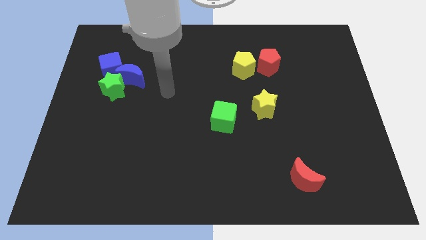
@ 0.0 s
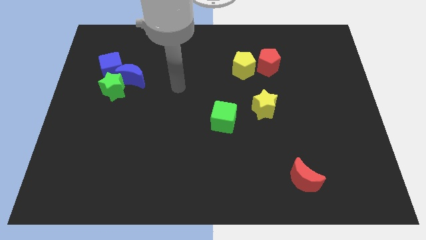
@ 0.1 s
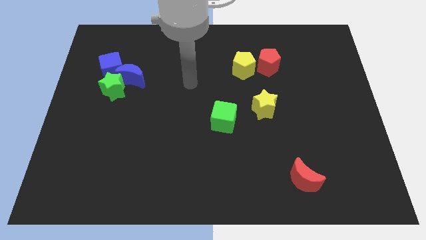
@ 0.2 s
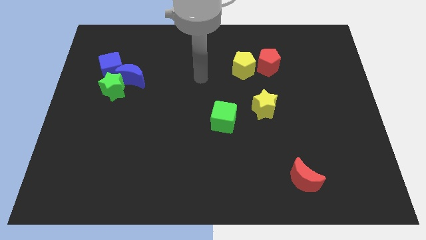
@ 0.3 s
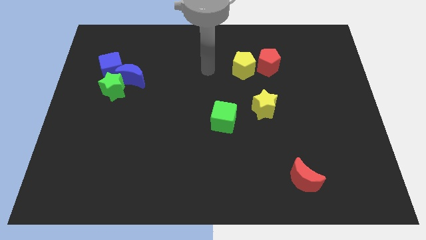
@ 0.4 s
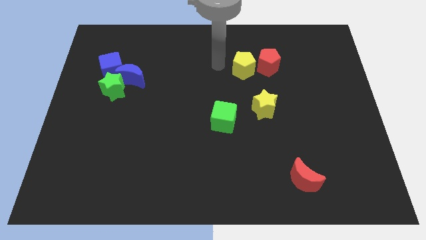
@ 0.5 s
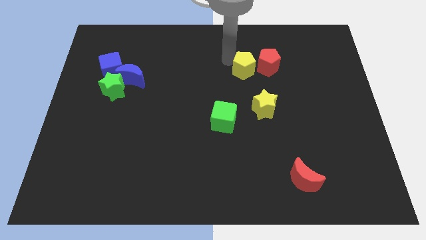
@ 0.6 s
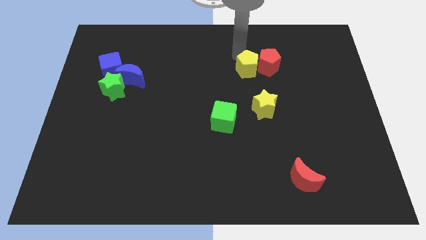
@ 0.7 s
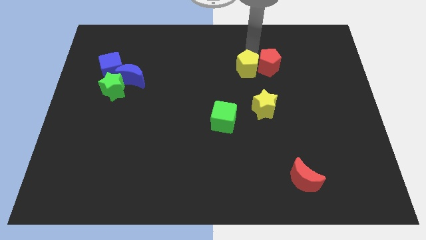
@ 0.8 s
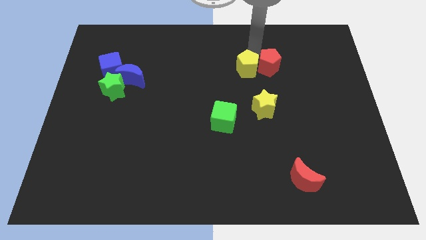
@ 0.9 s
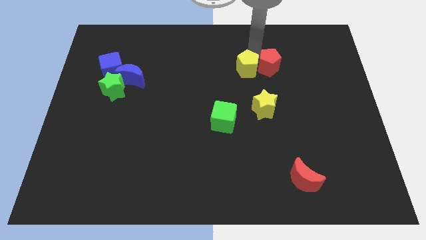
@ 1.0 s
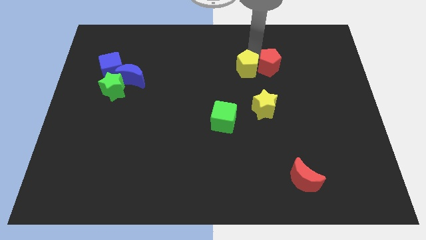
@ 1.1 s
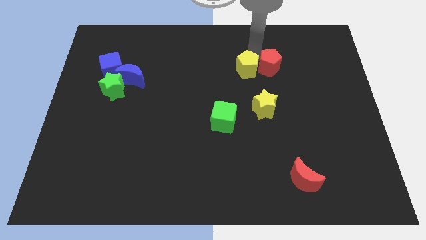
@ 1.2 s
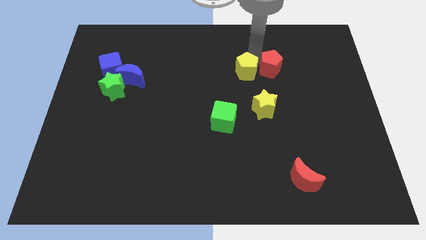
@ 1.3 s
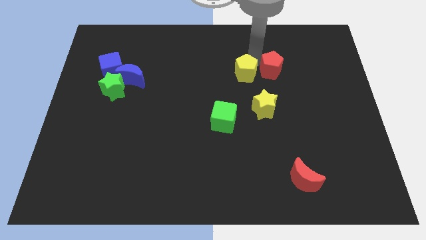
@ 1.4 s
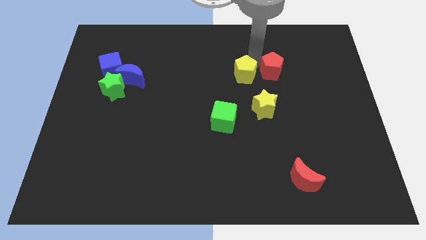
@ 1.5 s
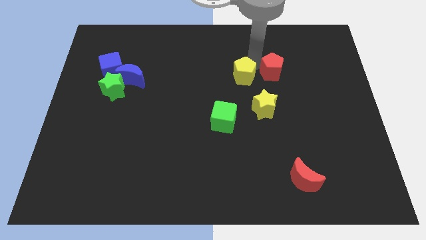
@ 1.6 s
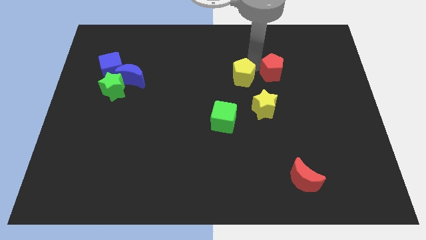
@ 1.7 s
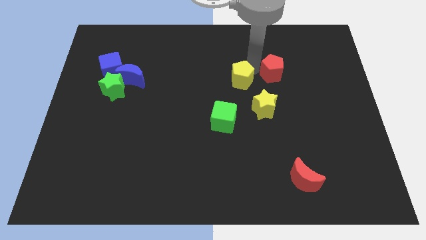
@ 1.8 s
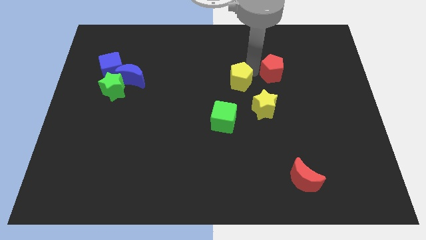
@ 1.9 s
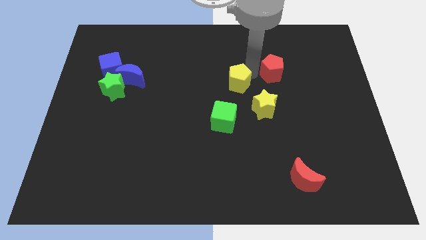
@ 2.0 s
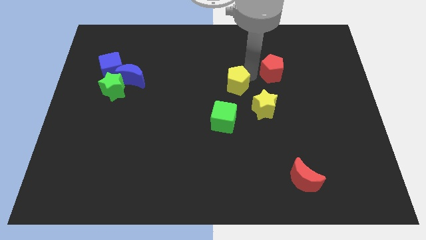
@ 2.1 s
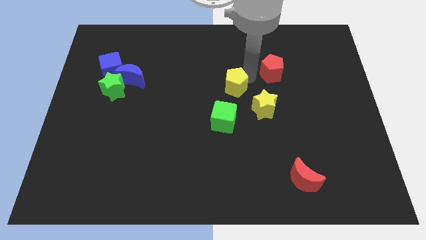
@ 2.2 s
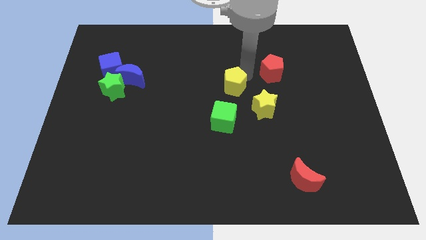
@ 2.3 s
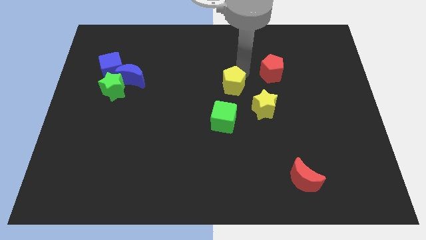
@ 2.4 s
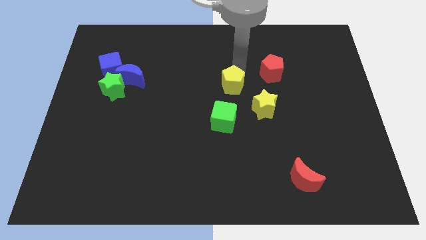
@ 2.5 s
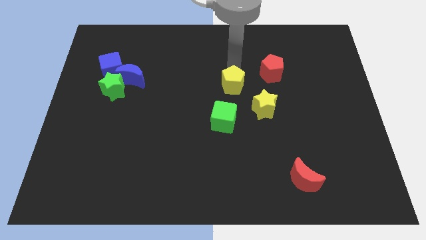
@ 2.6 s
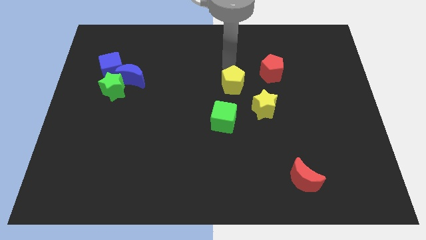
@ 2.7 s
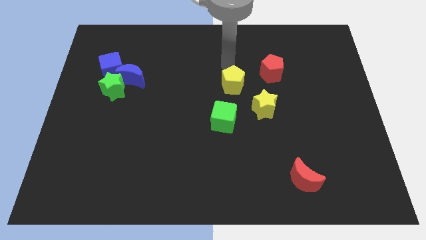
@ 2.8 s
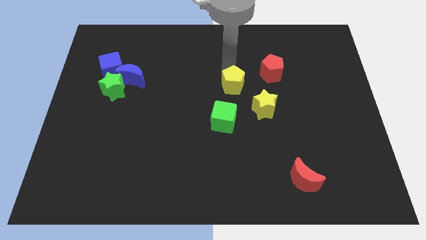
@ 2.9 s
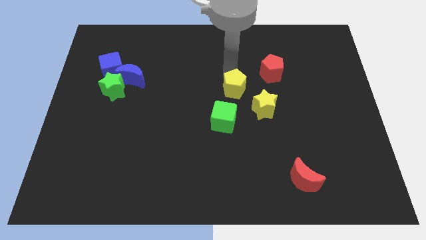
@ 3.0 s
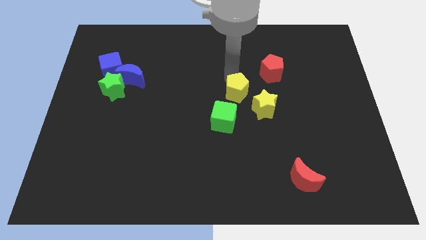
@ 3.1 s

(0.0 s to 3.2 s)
push the yellow pentagon a bit down

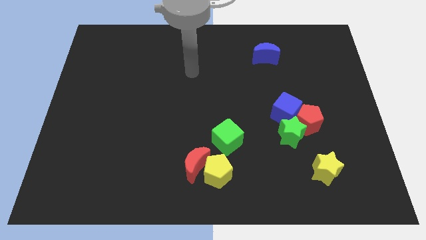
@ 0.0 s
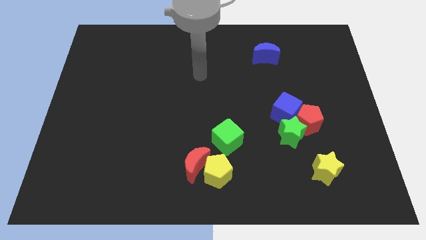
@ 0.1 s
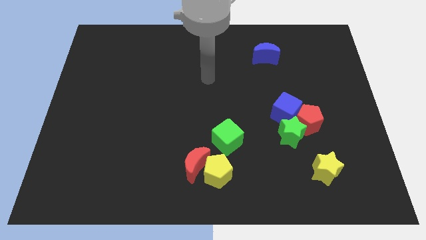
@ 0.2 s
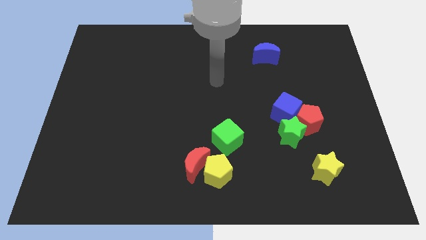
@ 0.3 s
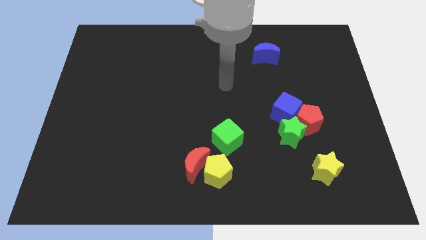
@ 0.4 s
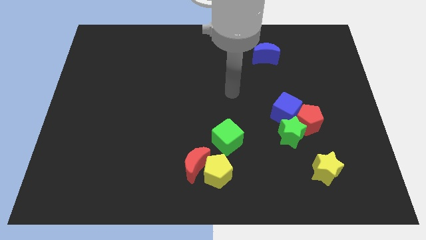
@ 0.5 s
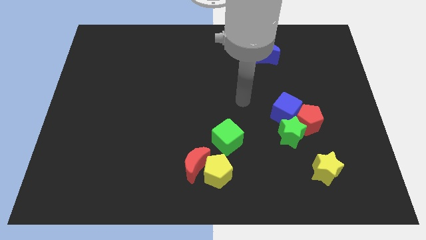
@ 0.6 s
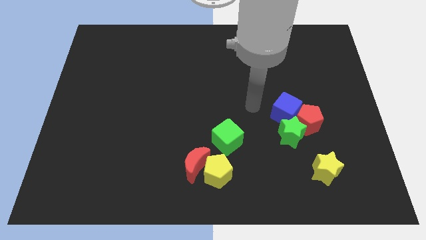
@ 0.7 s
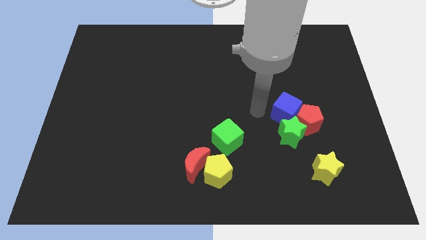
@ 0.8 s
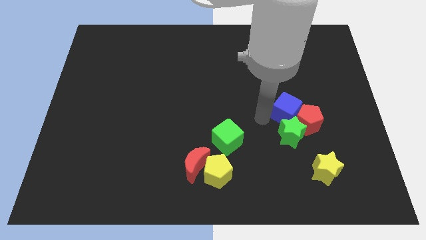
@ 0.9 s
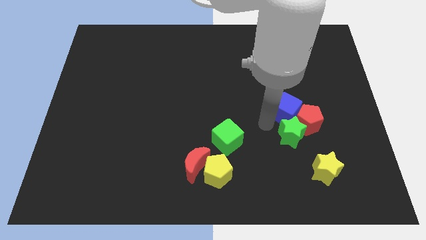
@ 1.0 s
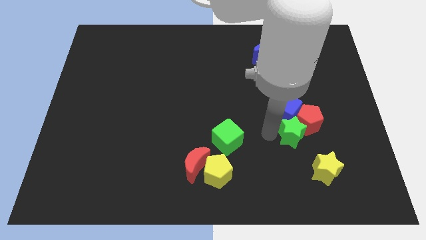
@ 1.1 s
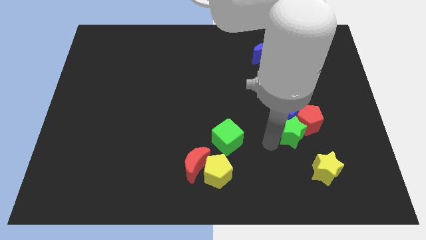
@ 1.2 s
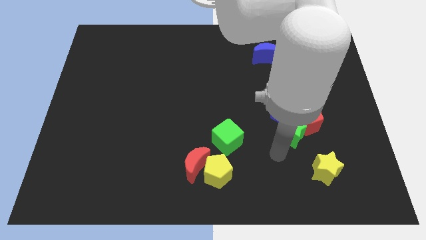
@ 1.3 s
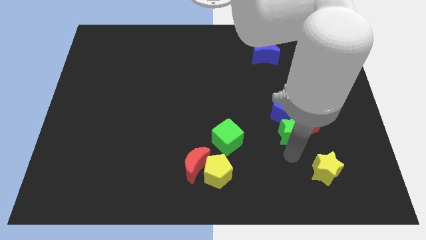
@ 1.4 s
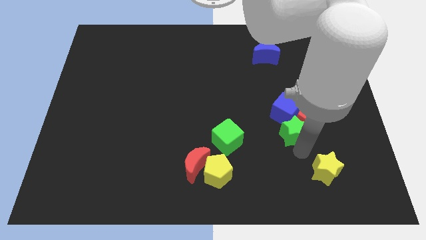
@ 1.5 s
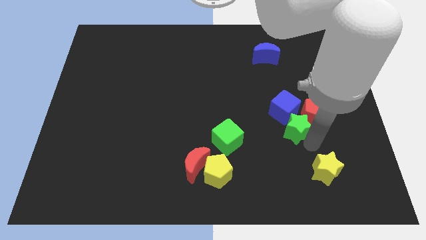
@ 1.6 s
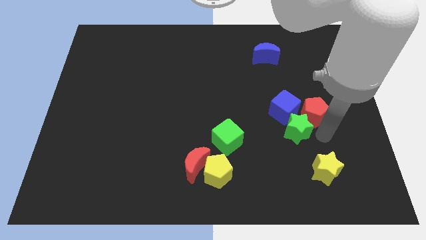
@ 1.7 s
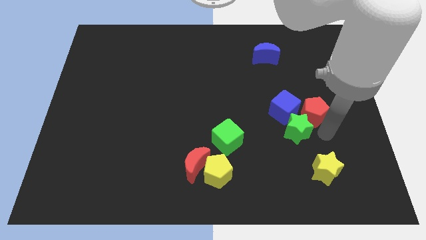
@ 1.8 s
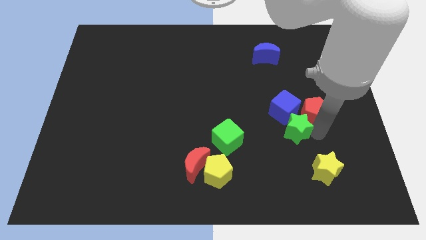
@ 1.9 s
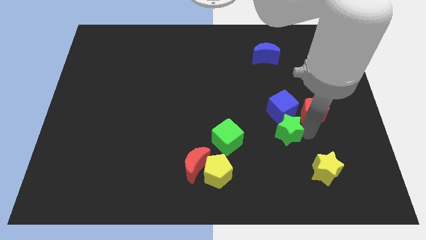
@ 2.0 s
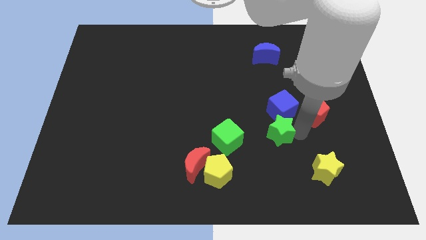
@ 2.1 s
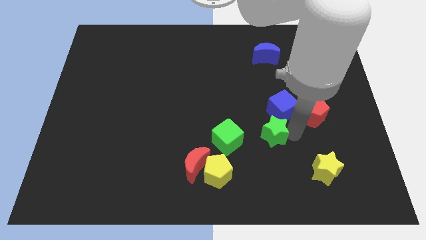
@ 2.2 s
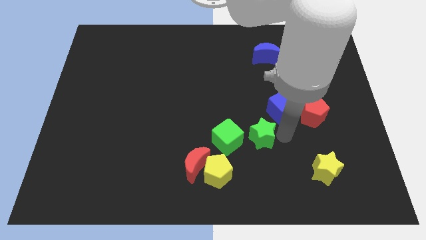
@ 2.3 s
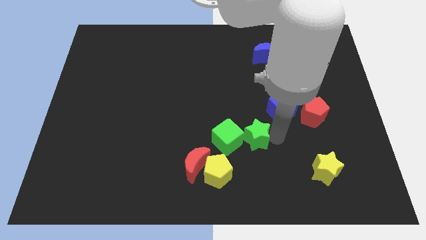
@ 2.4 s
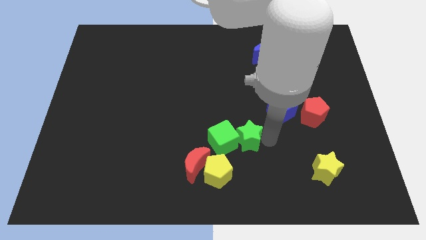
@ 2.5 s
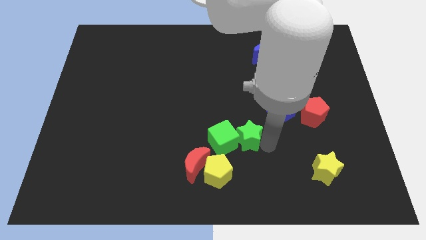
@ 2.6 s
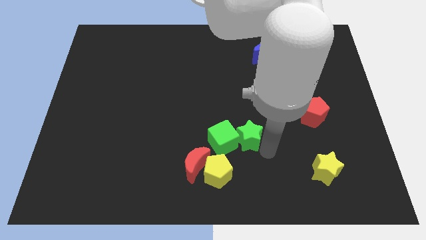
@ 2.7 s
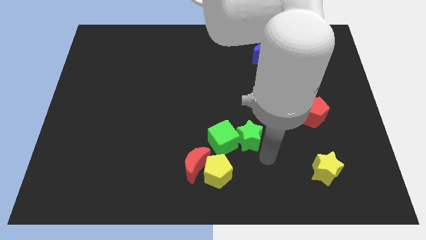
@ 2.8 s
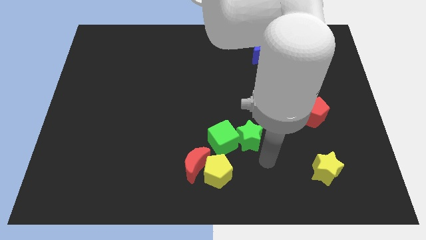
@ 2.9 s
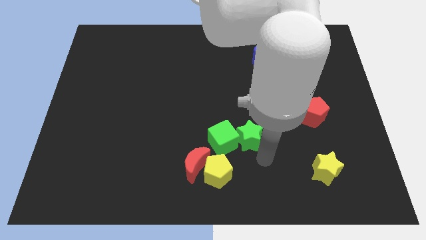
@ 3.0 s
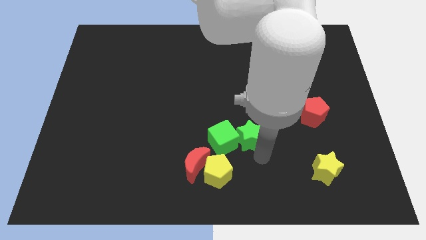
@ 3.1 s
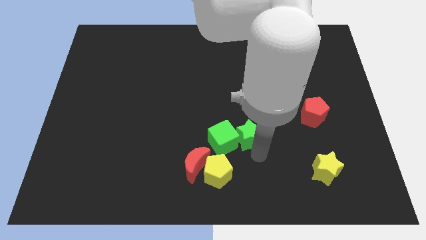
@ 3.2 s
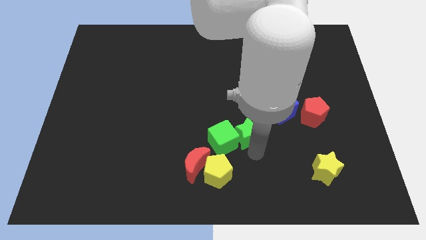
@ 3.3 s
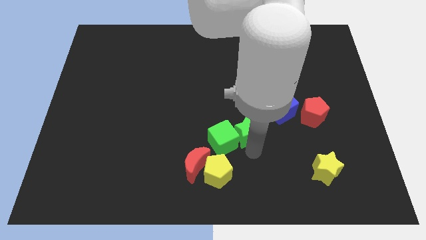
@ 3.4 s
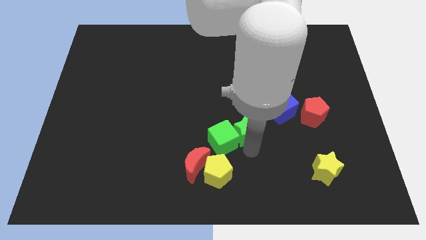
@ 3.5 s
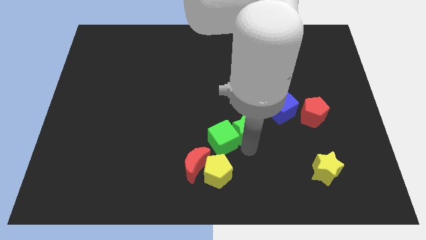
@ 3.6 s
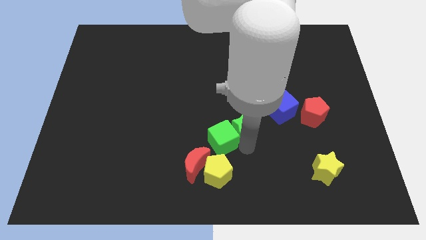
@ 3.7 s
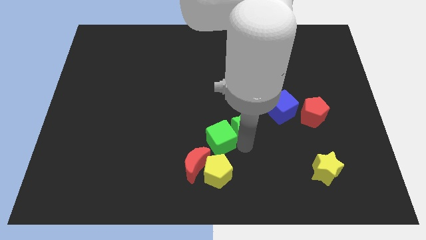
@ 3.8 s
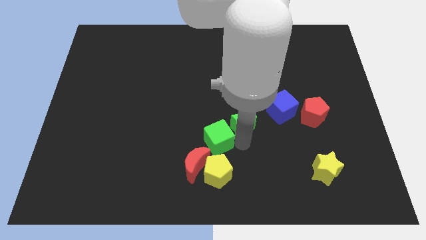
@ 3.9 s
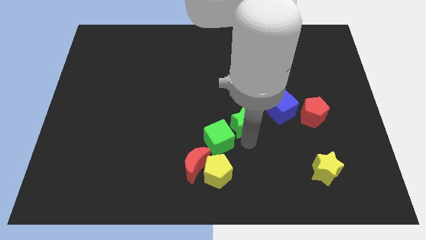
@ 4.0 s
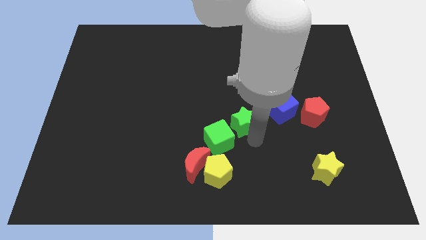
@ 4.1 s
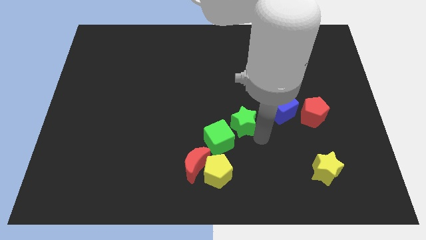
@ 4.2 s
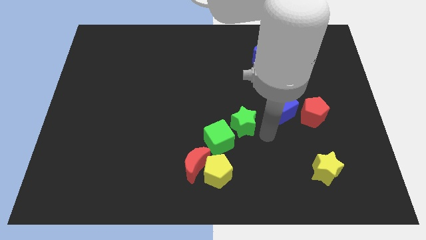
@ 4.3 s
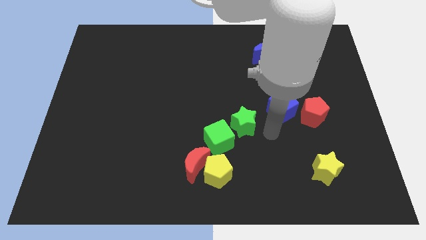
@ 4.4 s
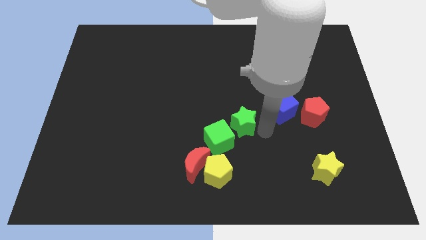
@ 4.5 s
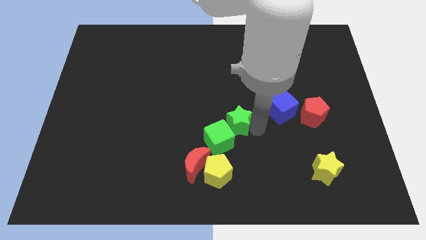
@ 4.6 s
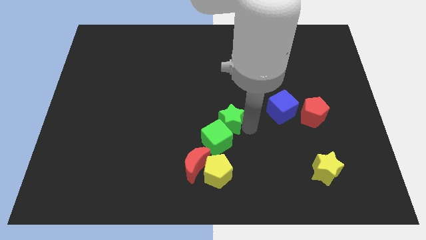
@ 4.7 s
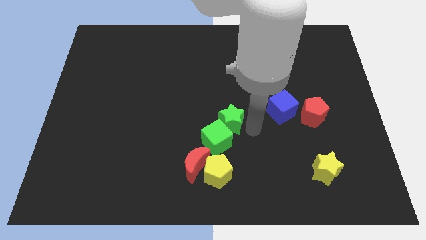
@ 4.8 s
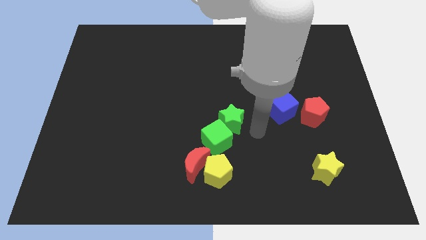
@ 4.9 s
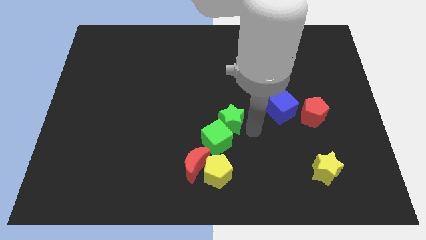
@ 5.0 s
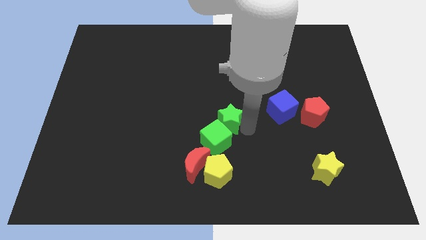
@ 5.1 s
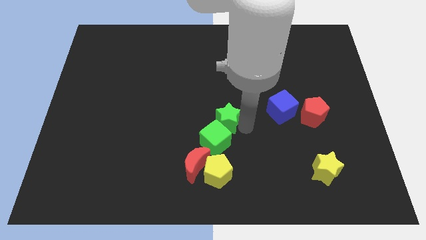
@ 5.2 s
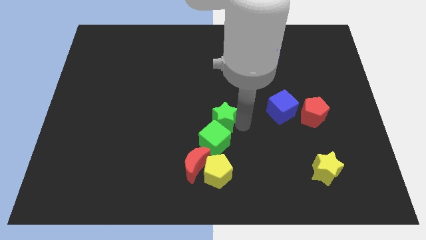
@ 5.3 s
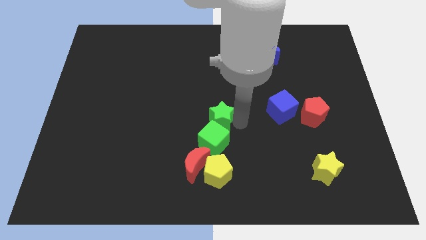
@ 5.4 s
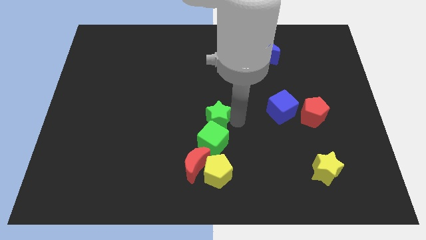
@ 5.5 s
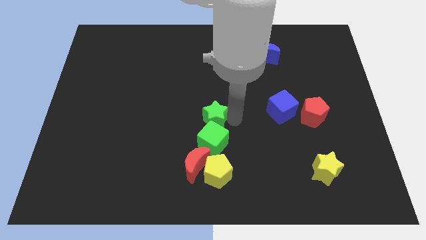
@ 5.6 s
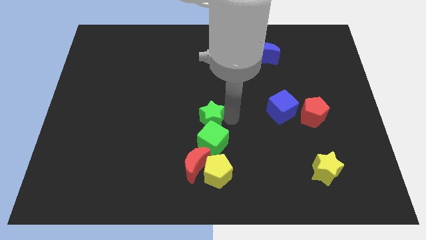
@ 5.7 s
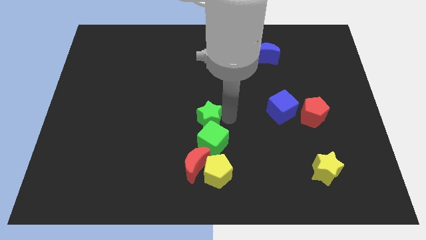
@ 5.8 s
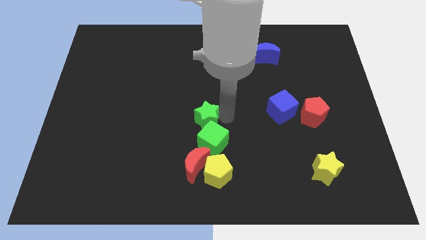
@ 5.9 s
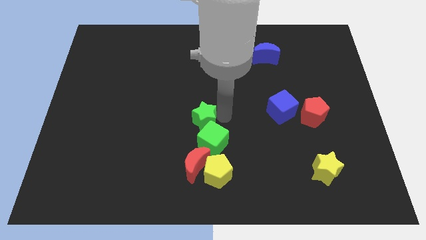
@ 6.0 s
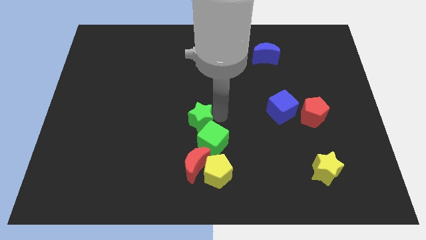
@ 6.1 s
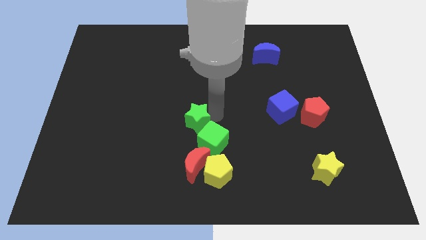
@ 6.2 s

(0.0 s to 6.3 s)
move the green star to the left
